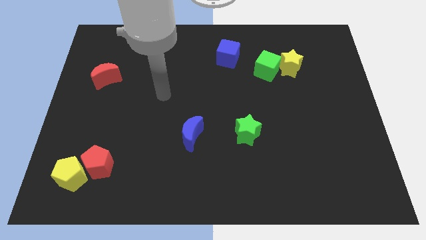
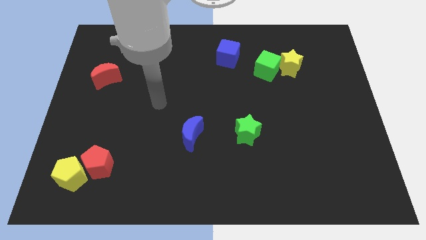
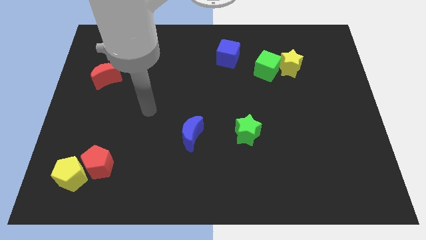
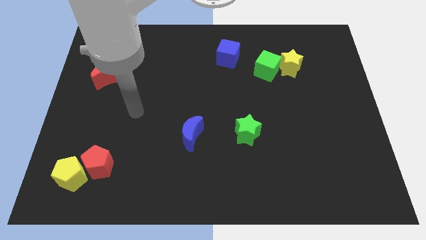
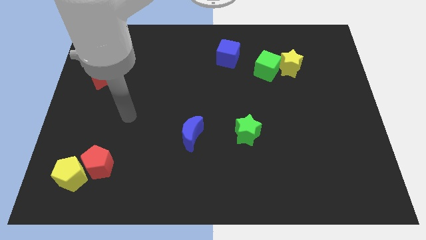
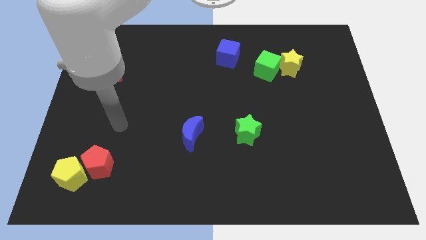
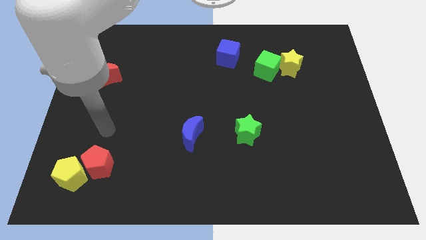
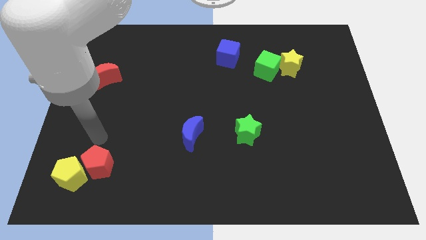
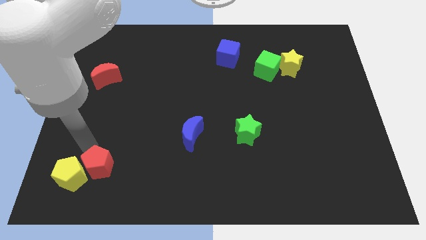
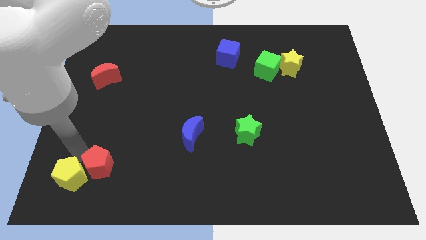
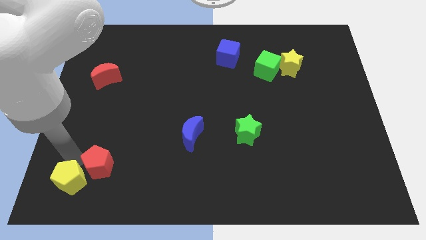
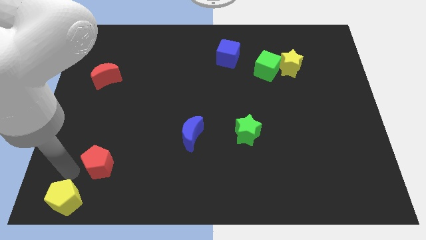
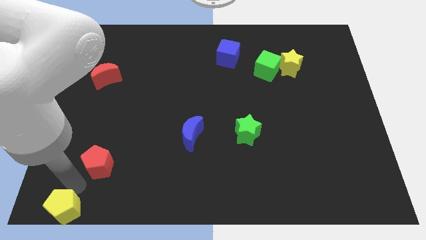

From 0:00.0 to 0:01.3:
separate the red pentagon from the yellow pentagon

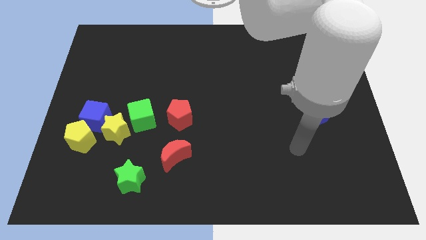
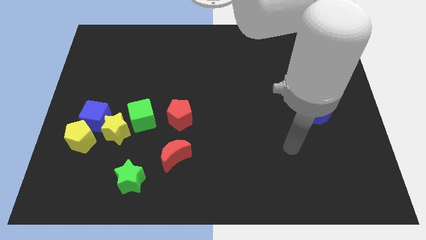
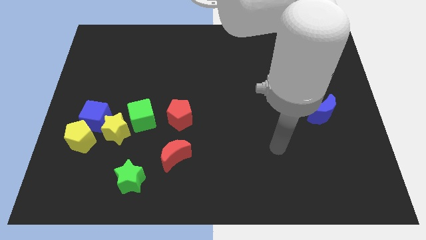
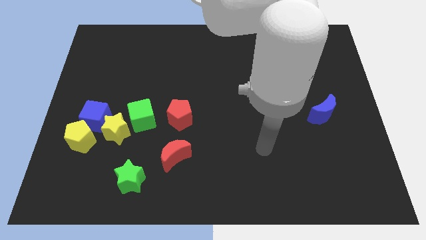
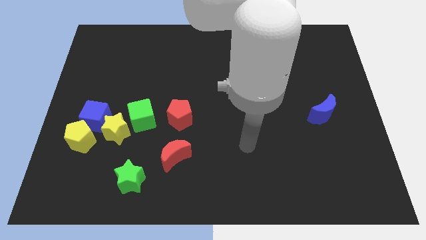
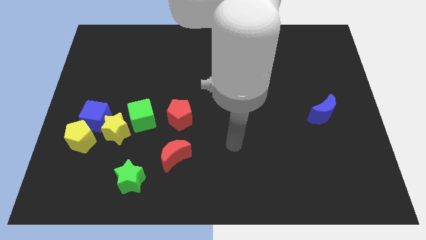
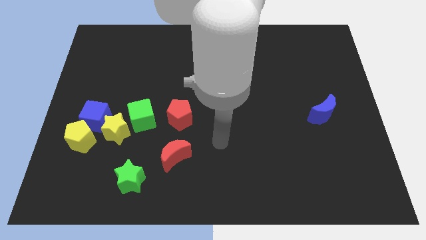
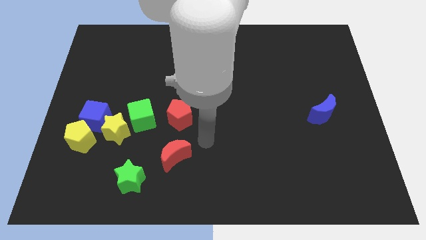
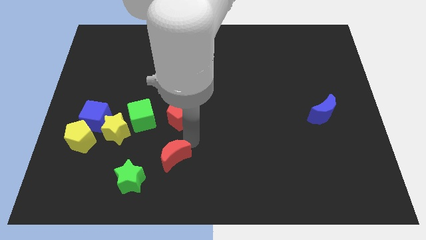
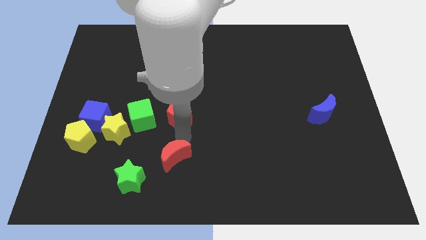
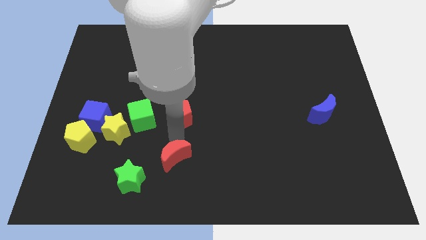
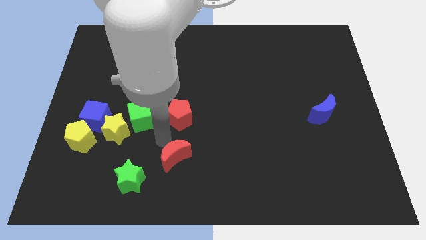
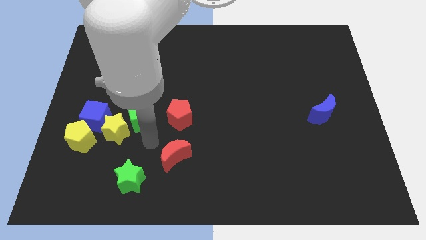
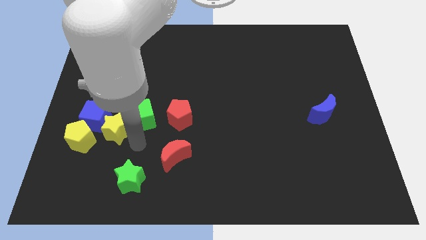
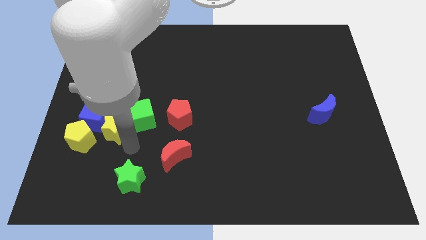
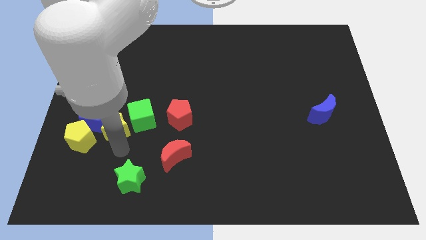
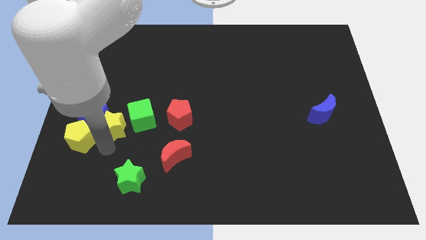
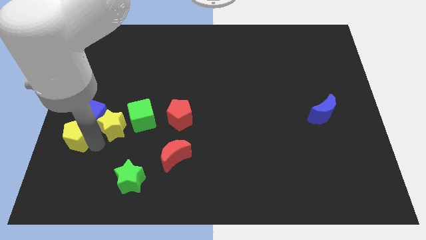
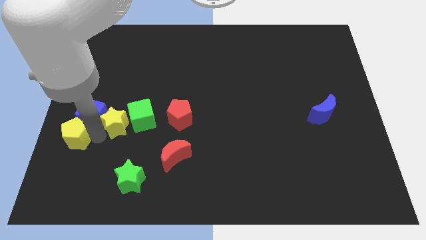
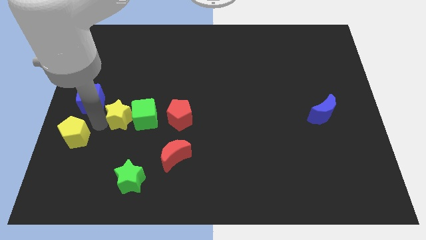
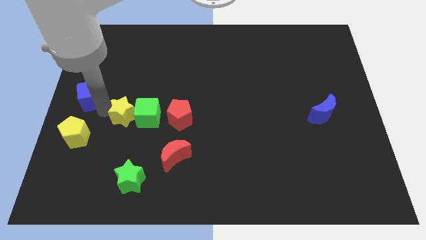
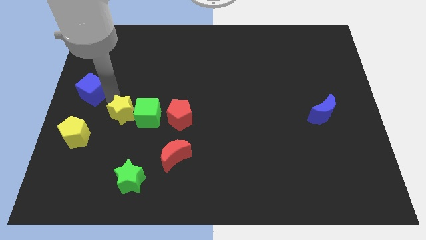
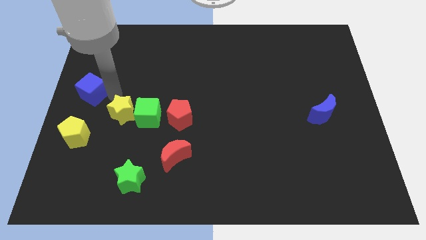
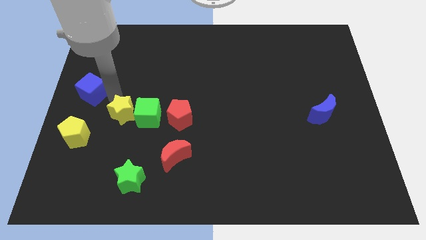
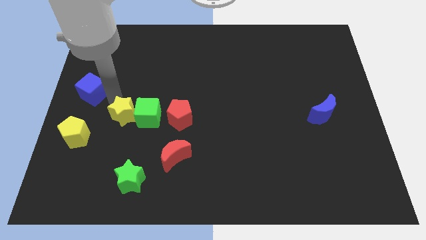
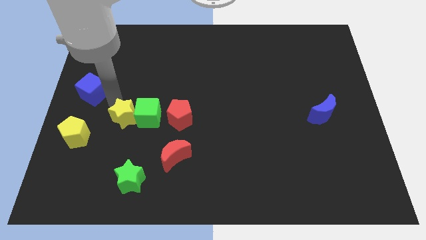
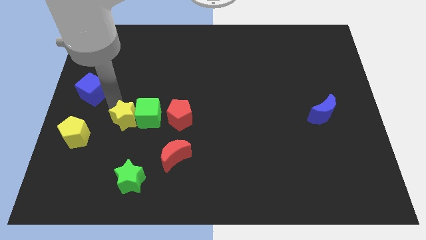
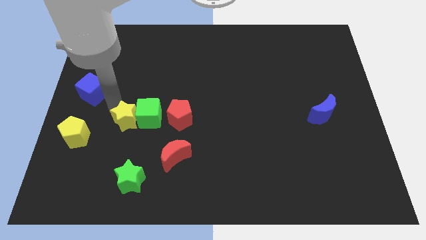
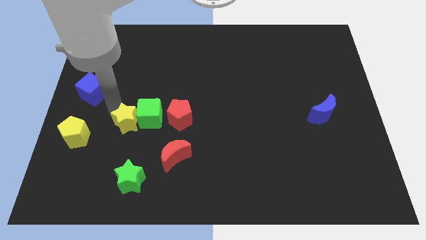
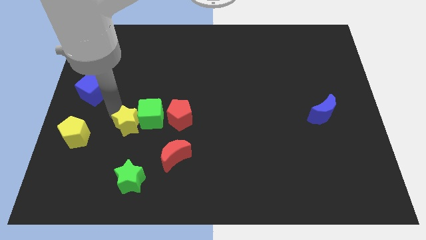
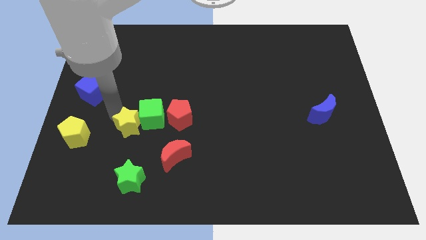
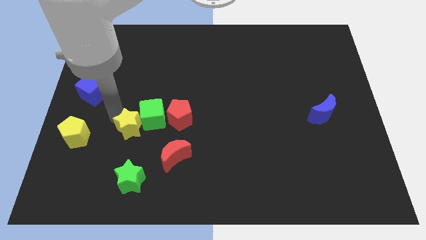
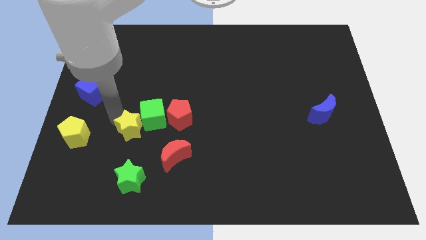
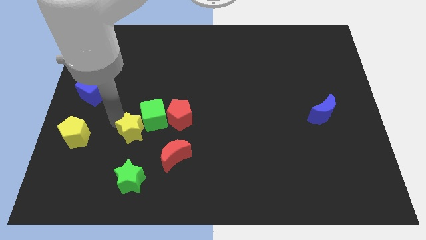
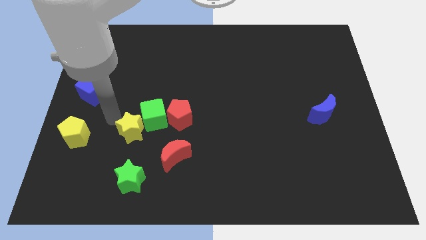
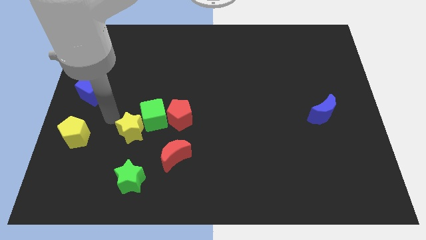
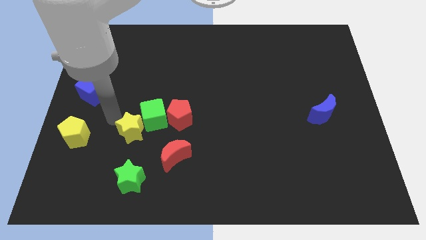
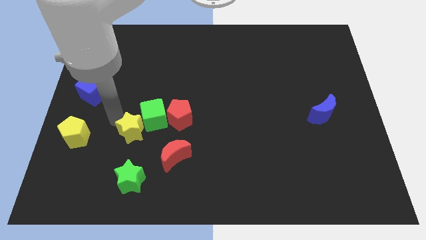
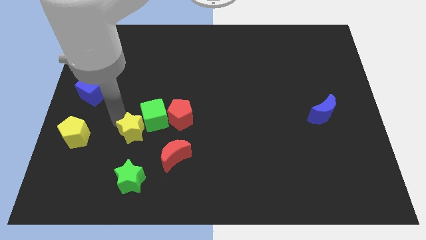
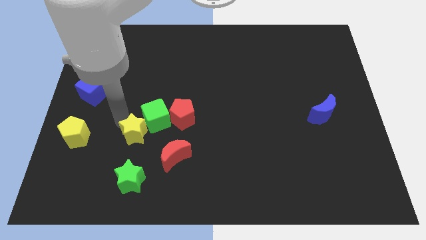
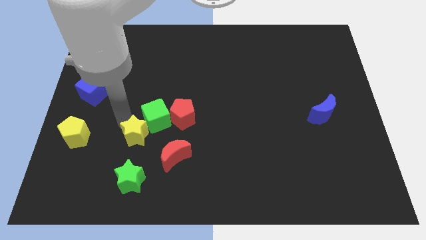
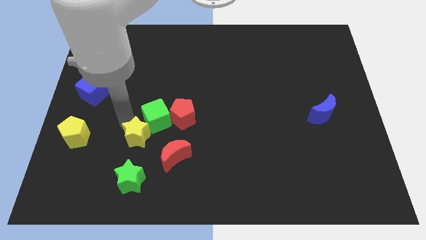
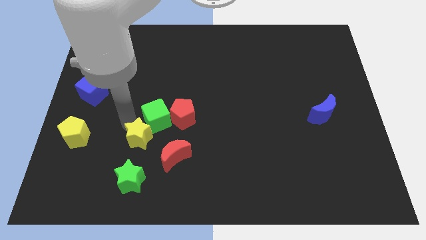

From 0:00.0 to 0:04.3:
separate the yellow star from the green cube, blue cube, and yellow pentagon

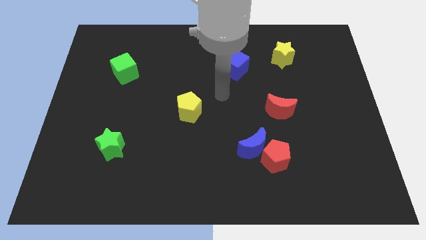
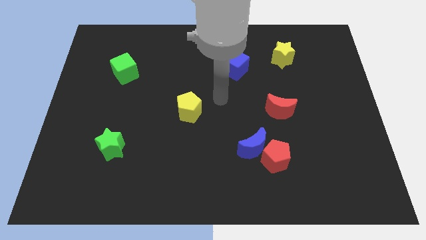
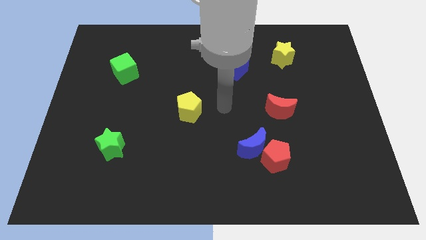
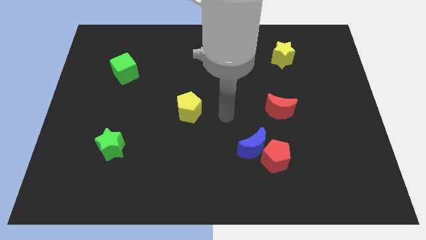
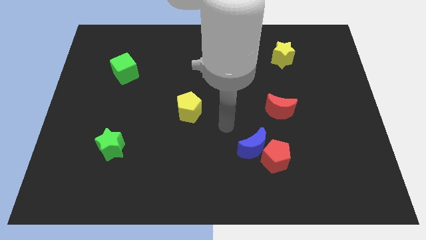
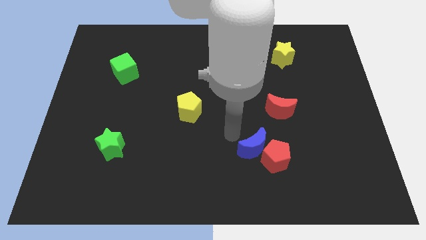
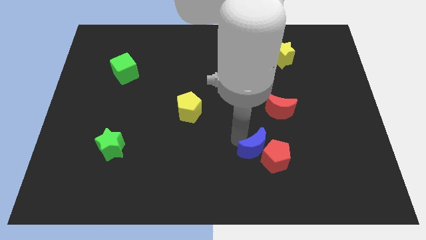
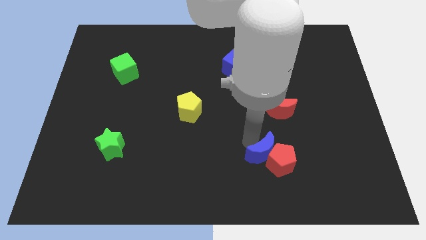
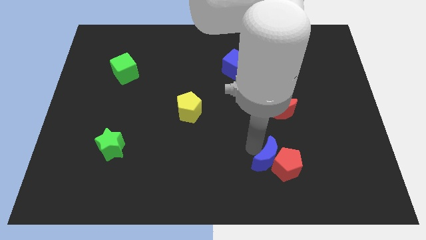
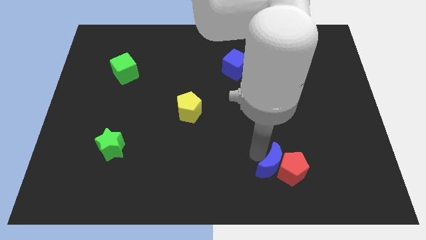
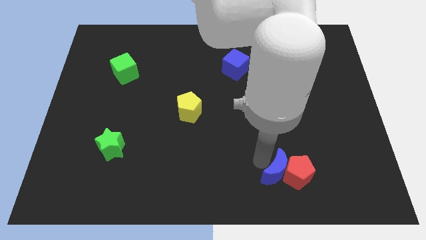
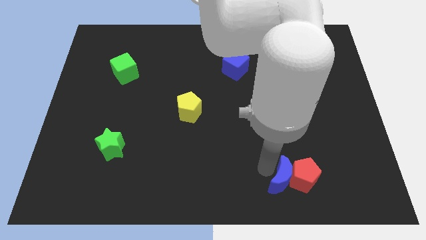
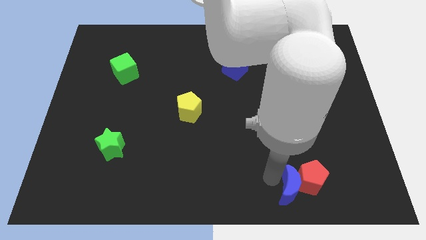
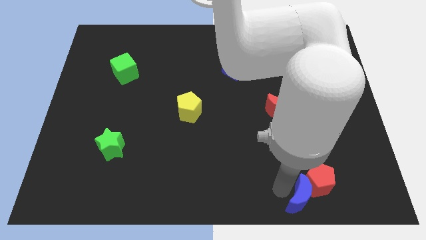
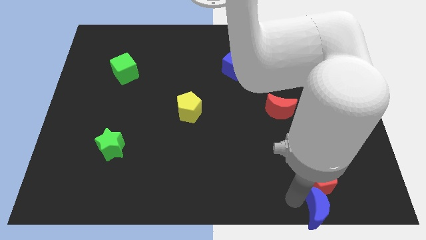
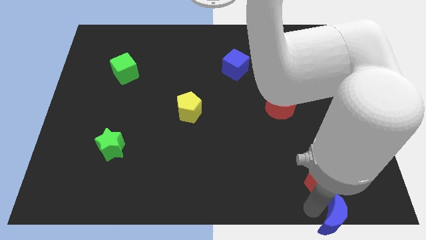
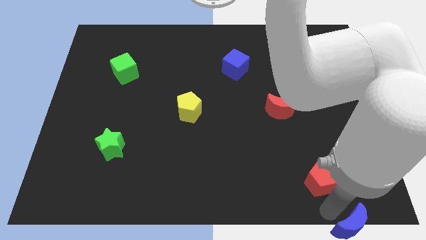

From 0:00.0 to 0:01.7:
pull the red pentagon apart from the blue moon

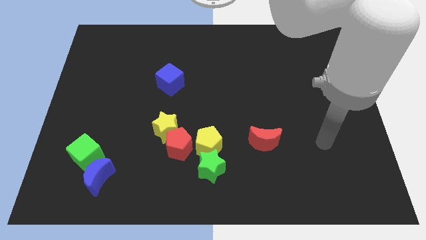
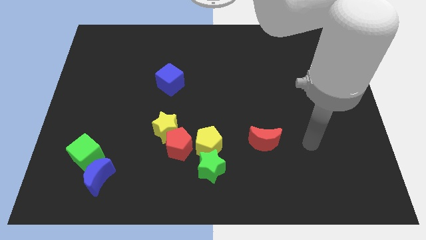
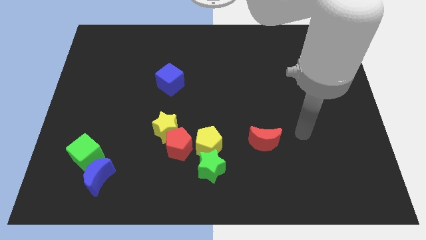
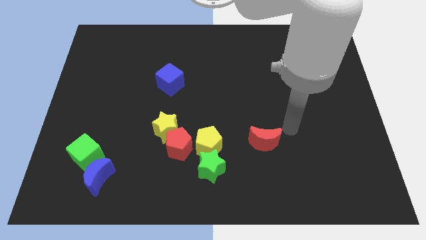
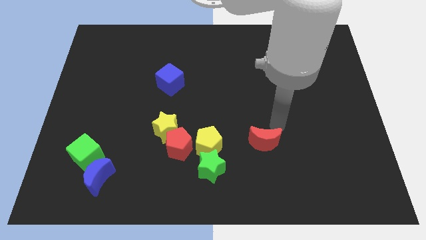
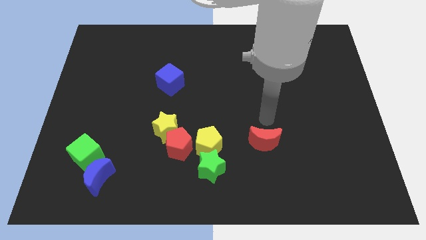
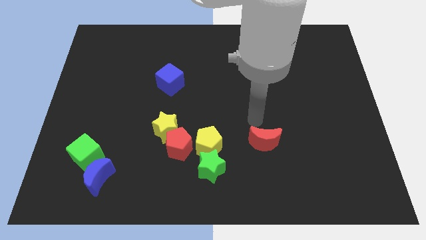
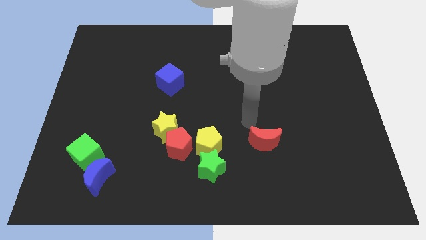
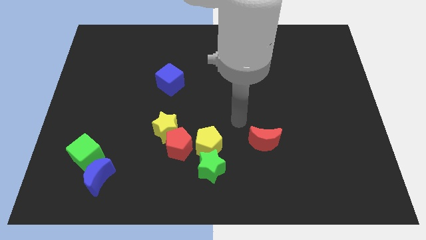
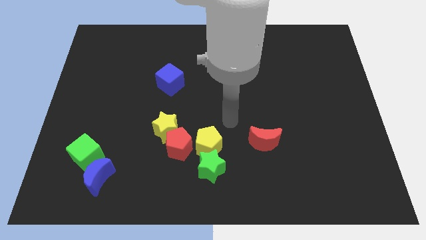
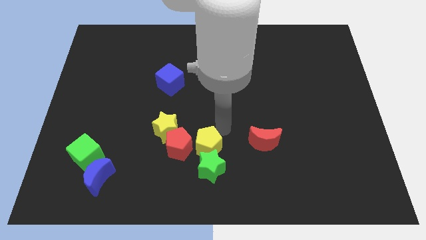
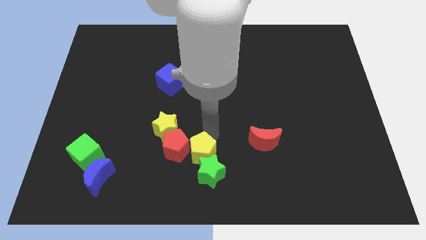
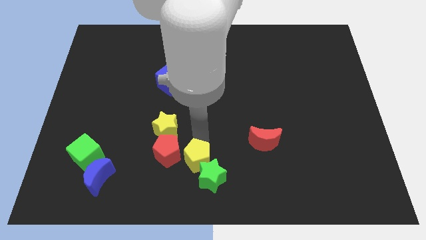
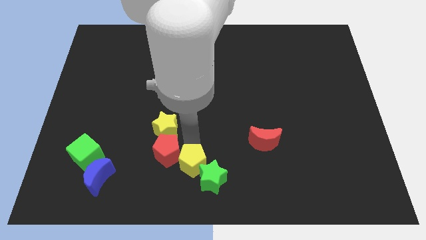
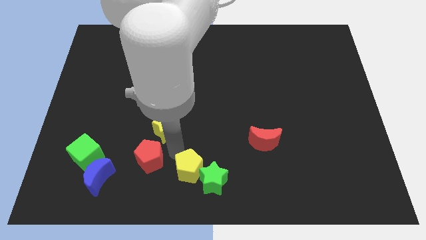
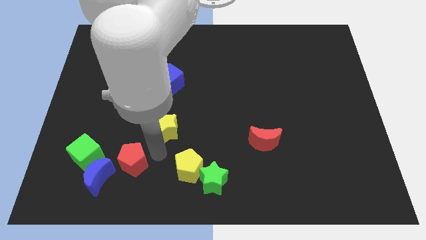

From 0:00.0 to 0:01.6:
pull the yellow star apart from the red pentagon

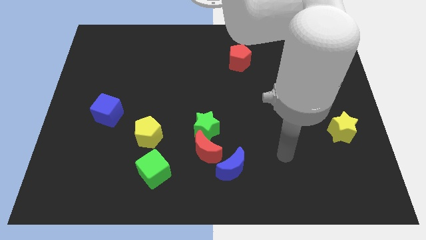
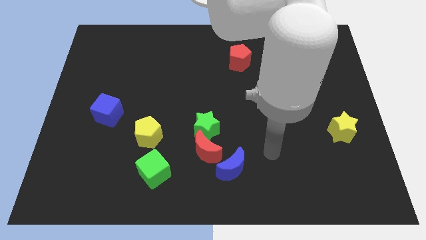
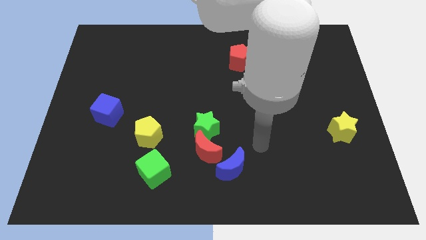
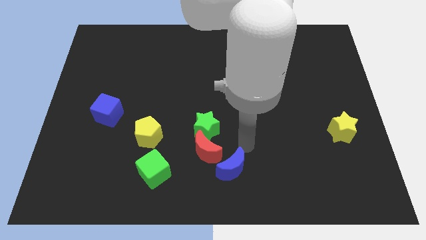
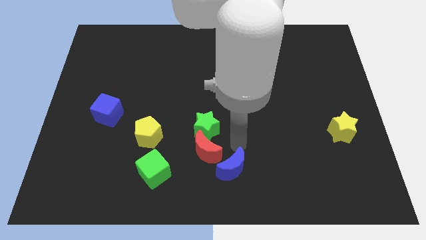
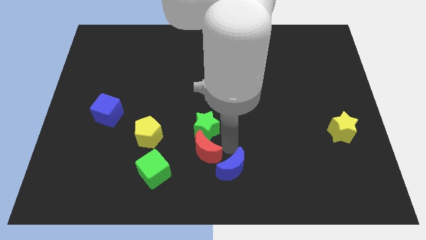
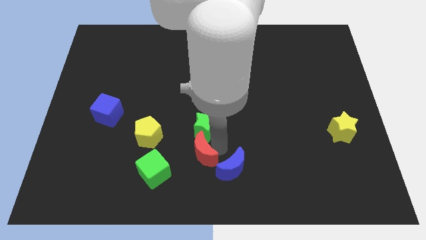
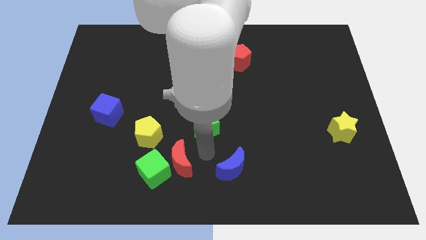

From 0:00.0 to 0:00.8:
pull the green star apart from the red moon
